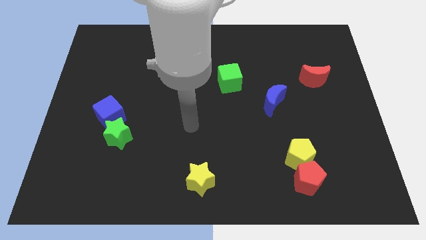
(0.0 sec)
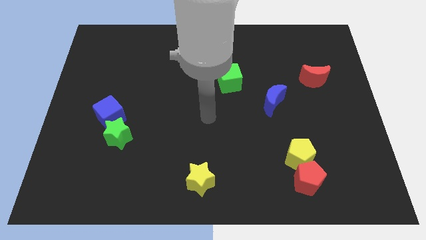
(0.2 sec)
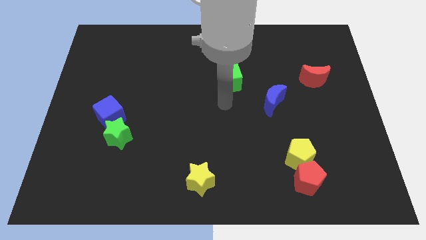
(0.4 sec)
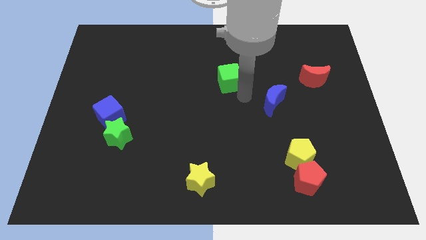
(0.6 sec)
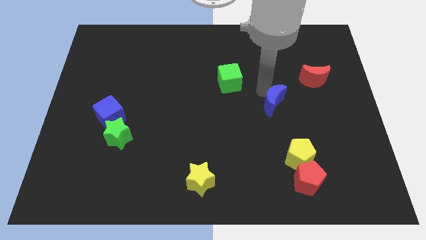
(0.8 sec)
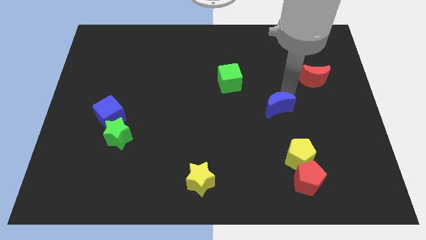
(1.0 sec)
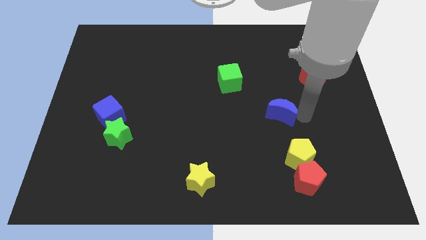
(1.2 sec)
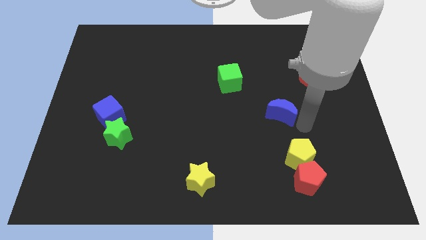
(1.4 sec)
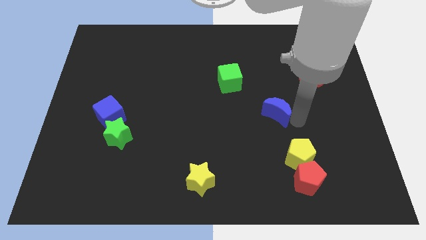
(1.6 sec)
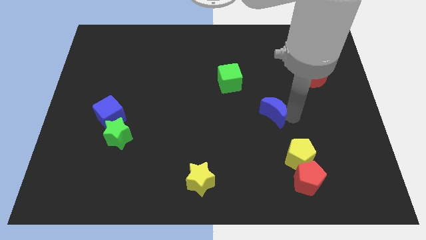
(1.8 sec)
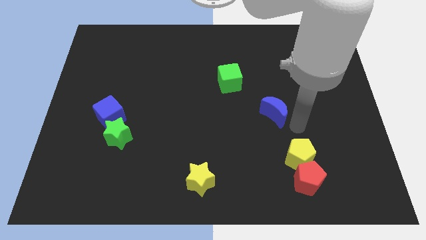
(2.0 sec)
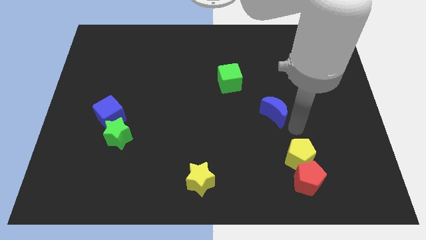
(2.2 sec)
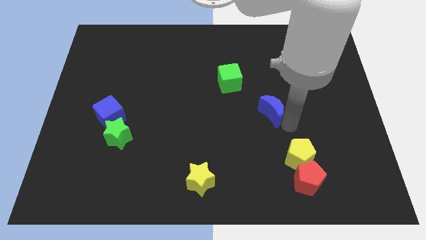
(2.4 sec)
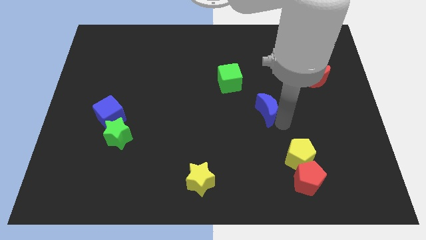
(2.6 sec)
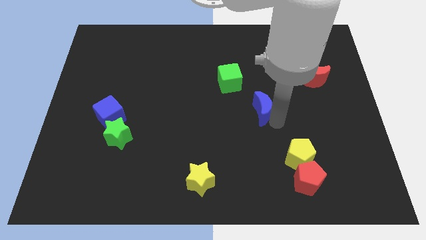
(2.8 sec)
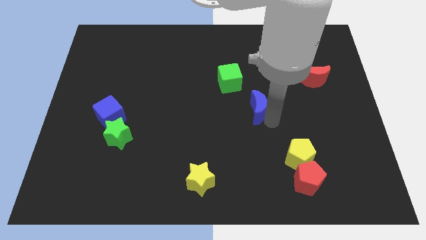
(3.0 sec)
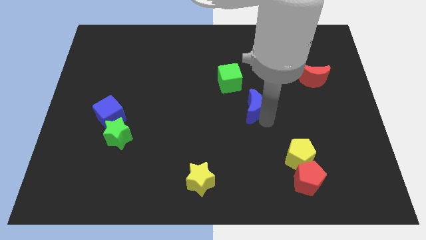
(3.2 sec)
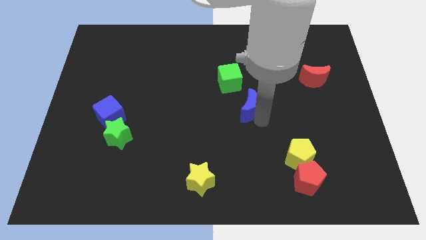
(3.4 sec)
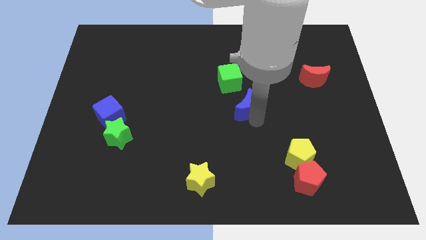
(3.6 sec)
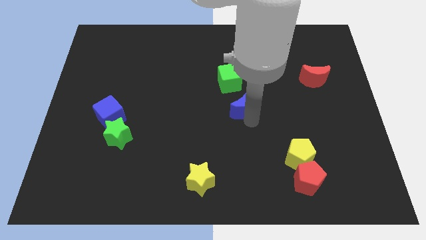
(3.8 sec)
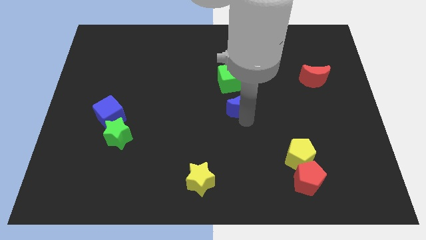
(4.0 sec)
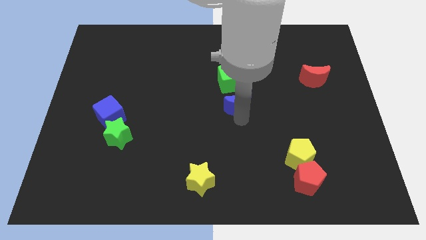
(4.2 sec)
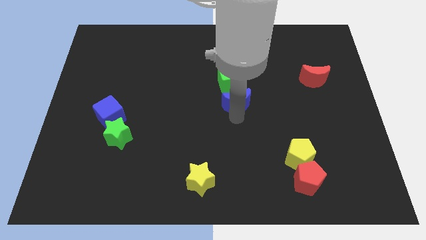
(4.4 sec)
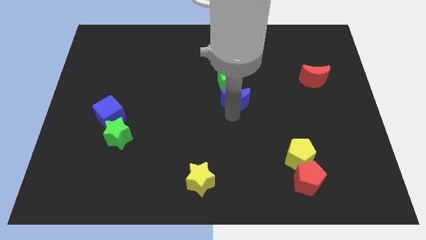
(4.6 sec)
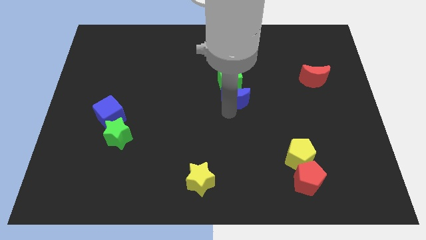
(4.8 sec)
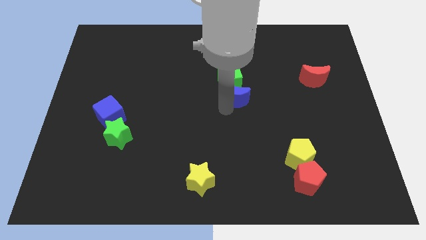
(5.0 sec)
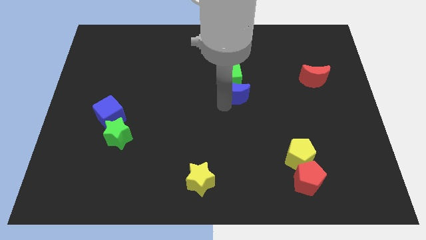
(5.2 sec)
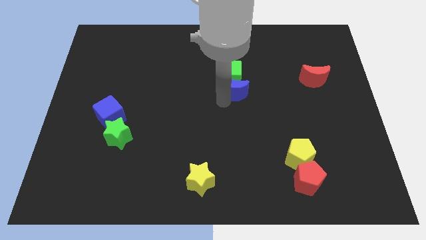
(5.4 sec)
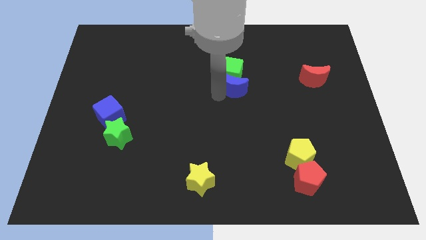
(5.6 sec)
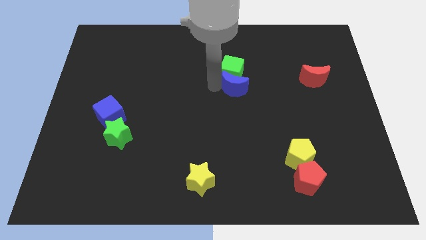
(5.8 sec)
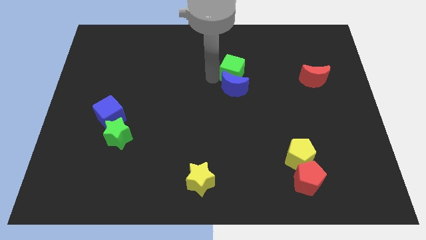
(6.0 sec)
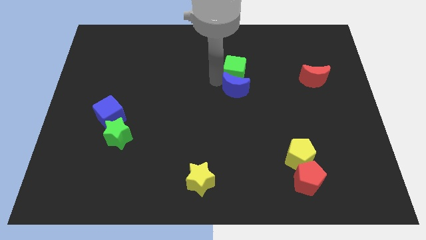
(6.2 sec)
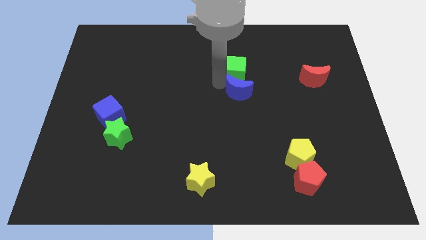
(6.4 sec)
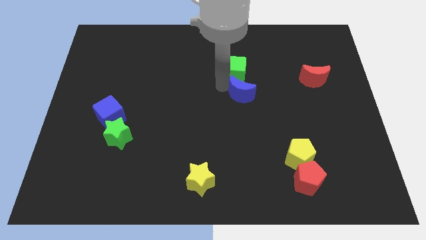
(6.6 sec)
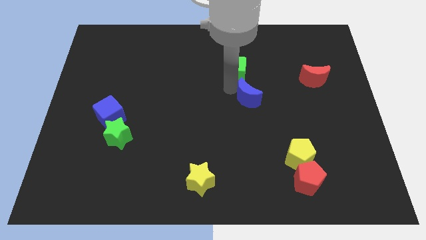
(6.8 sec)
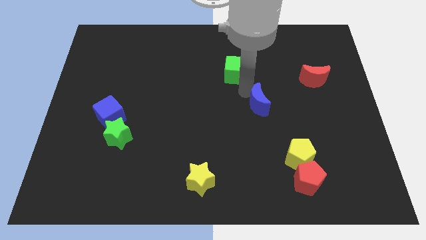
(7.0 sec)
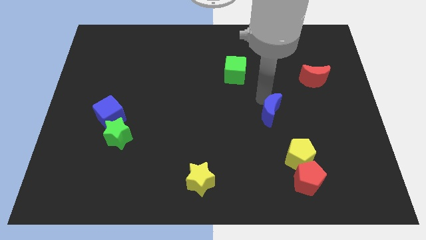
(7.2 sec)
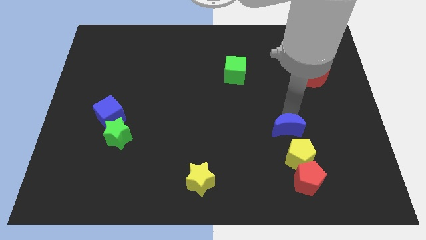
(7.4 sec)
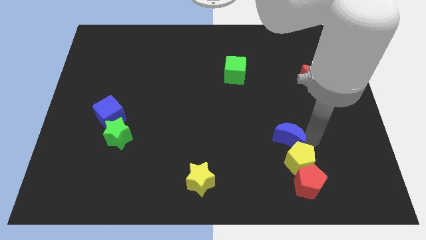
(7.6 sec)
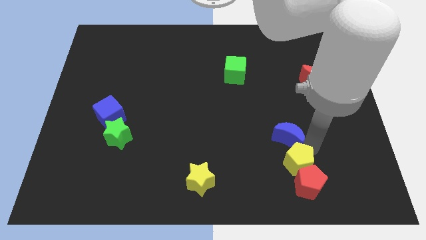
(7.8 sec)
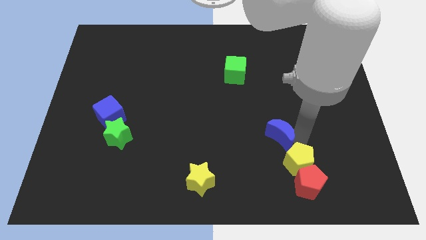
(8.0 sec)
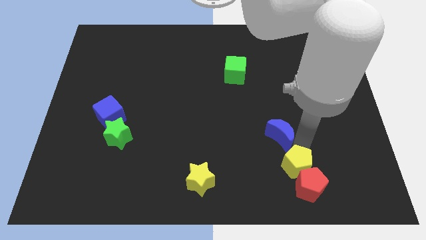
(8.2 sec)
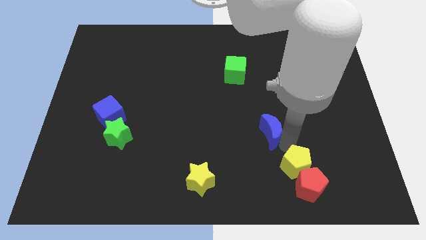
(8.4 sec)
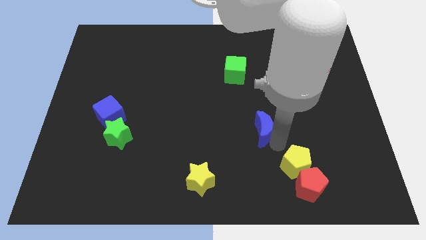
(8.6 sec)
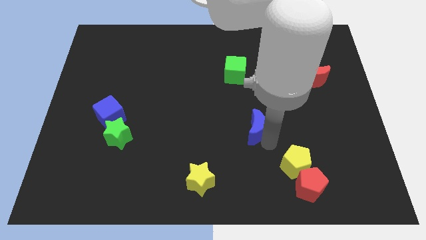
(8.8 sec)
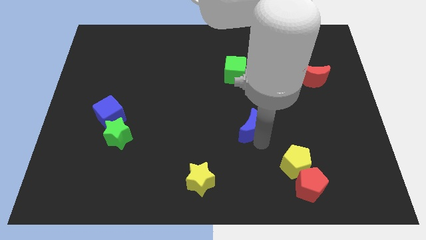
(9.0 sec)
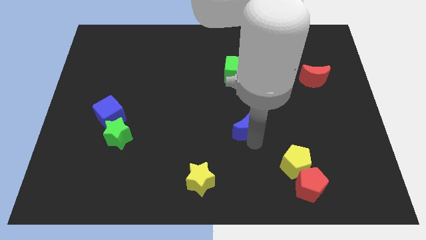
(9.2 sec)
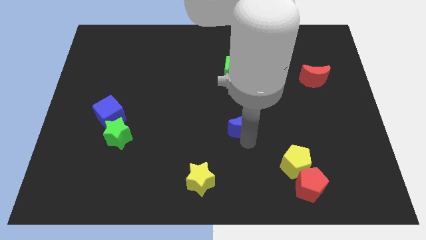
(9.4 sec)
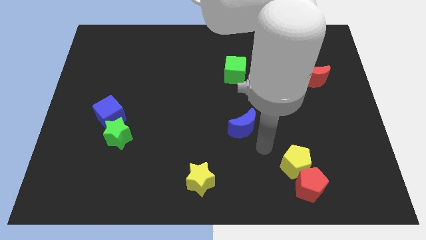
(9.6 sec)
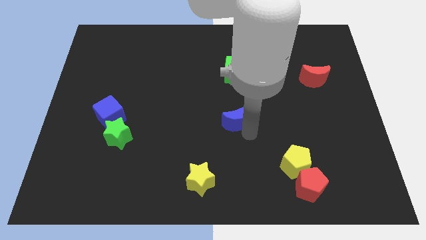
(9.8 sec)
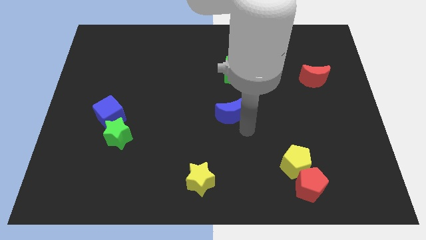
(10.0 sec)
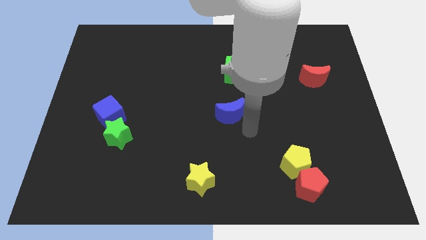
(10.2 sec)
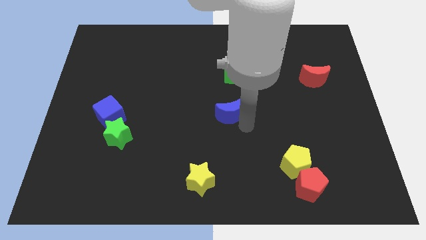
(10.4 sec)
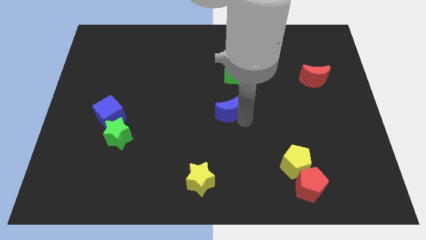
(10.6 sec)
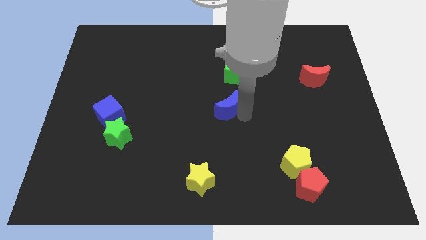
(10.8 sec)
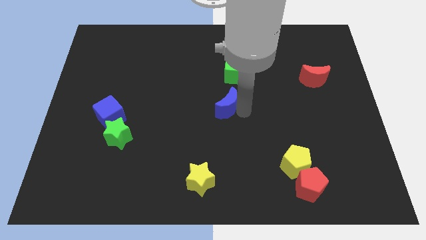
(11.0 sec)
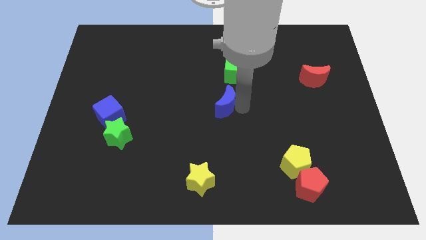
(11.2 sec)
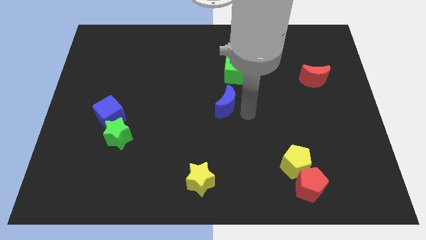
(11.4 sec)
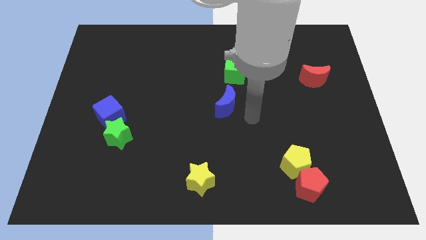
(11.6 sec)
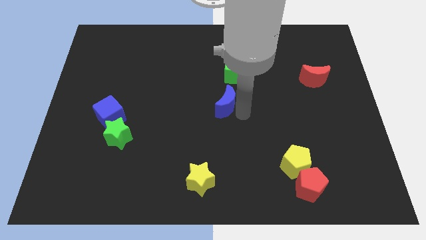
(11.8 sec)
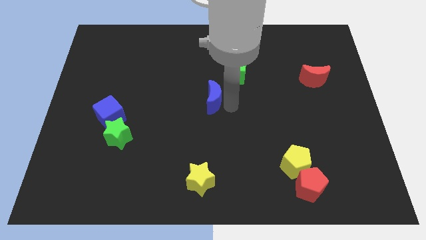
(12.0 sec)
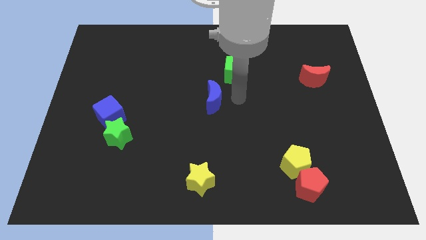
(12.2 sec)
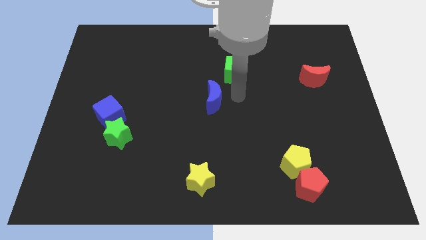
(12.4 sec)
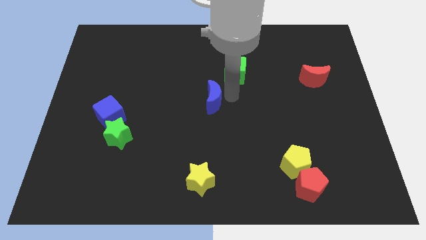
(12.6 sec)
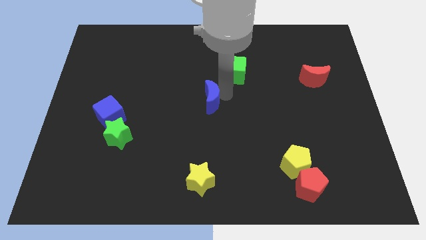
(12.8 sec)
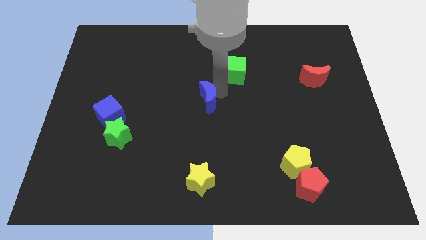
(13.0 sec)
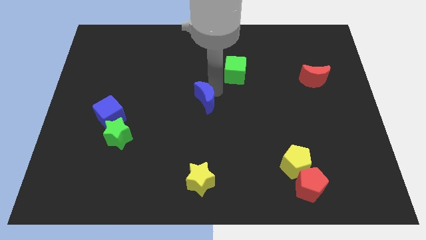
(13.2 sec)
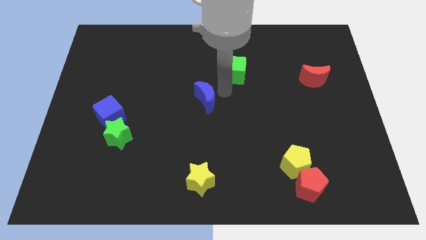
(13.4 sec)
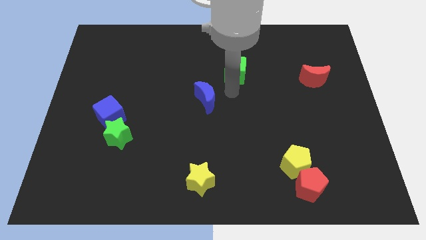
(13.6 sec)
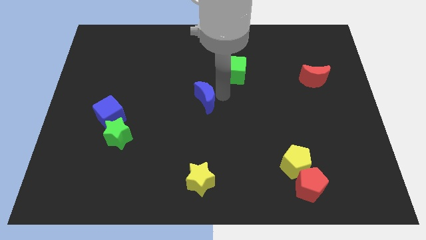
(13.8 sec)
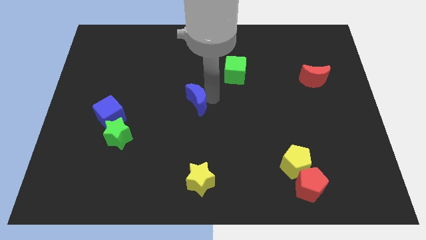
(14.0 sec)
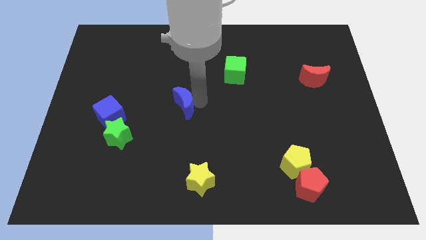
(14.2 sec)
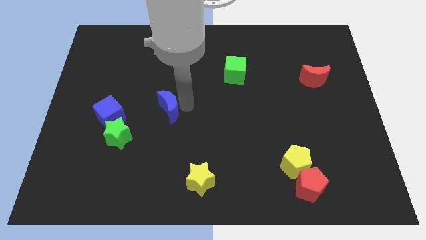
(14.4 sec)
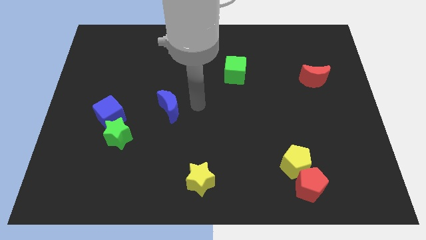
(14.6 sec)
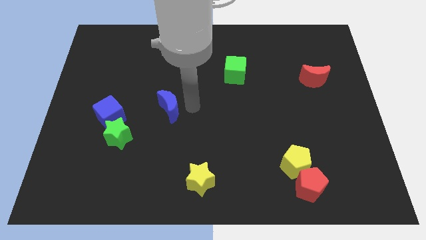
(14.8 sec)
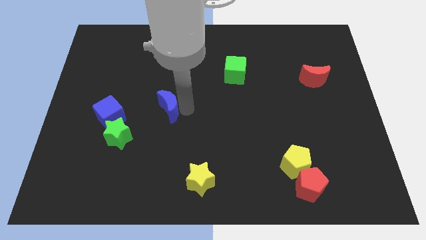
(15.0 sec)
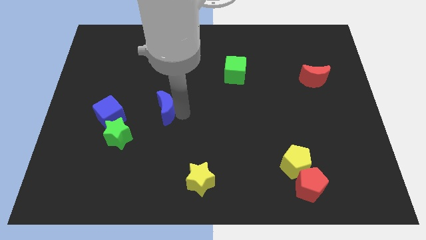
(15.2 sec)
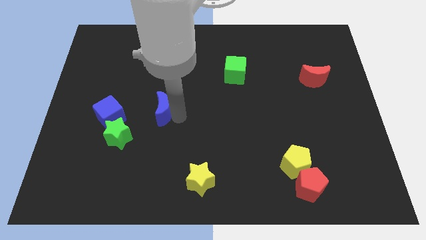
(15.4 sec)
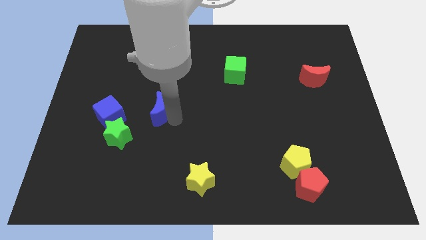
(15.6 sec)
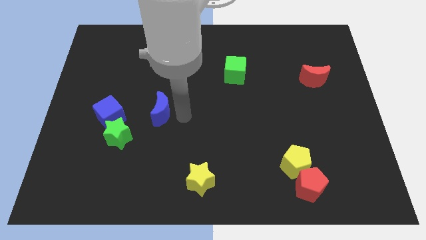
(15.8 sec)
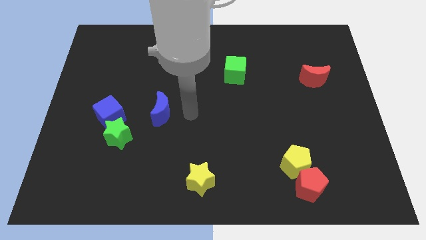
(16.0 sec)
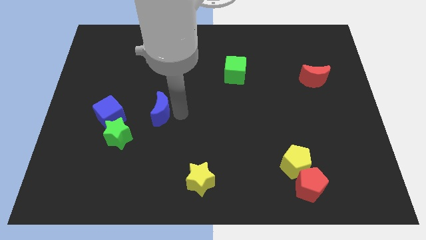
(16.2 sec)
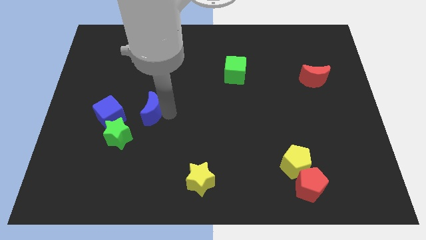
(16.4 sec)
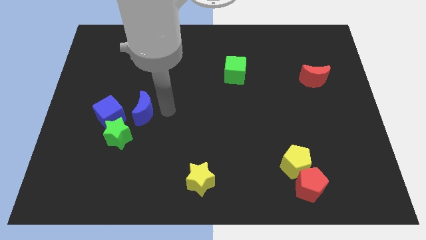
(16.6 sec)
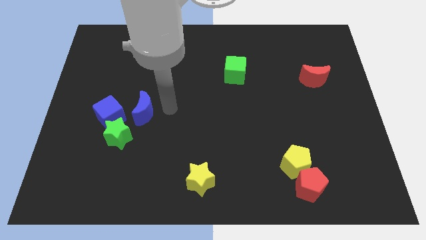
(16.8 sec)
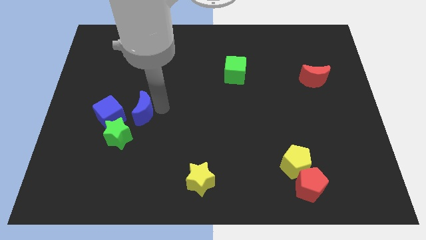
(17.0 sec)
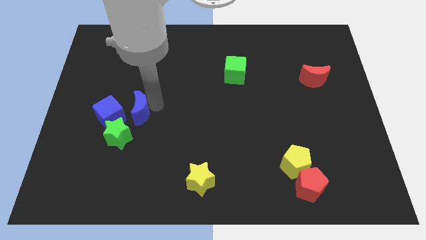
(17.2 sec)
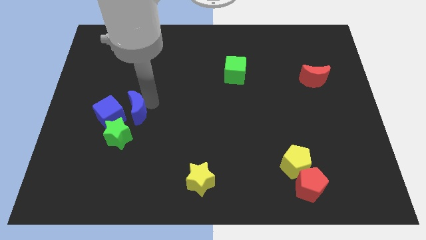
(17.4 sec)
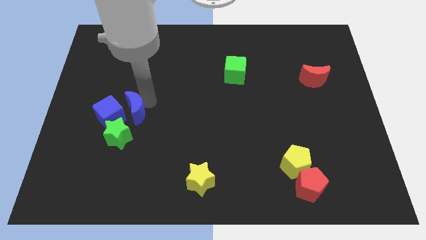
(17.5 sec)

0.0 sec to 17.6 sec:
move the blue moon close to the blue cube
